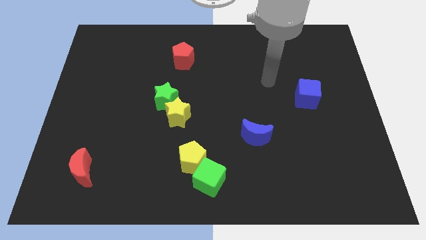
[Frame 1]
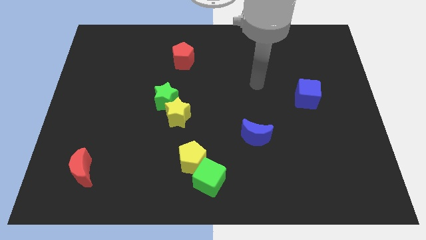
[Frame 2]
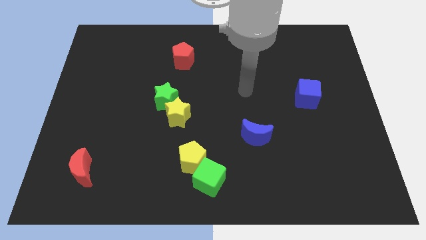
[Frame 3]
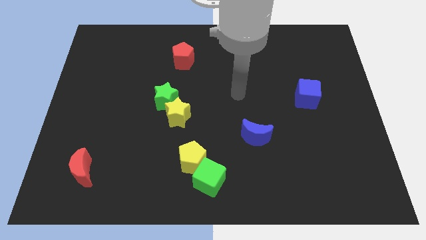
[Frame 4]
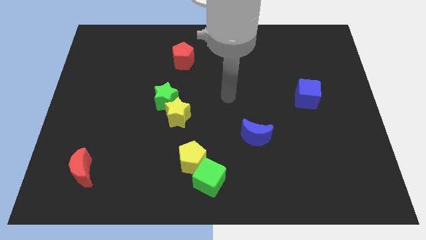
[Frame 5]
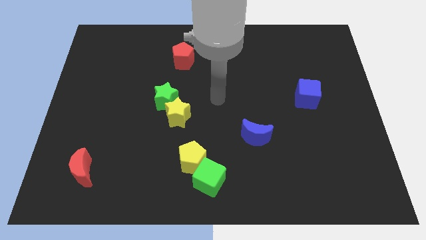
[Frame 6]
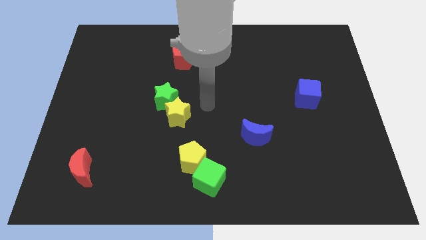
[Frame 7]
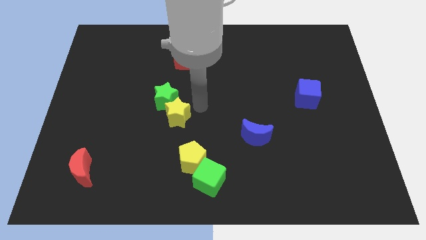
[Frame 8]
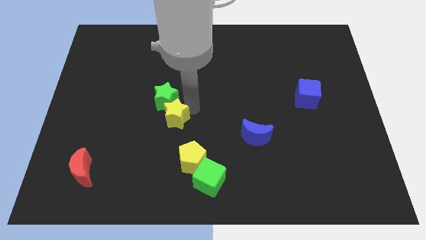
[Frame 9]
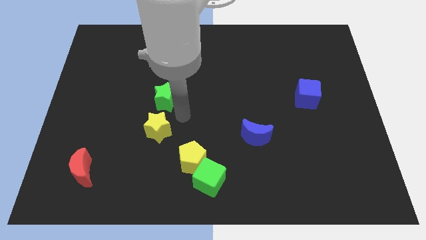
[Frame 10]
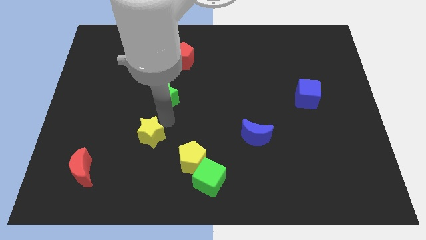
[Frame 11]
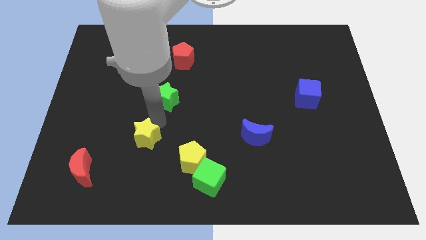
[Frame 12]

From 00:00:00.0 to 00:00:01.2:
separate the green star from the yellow star

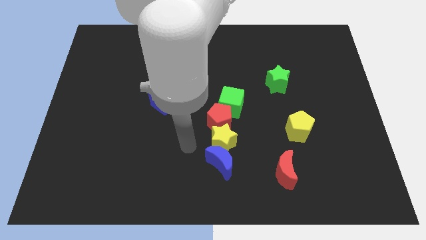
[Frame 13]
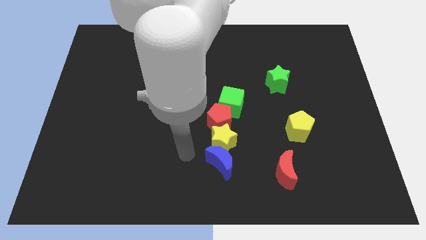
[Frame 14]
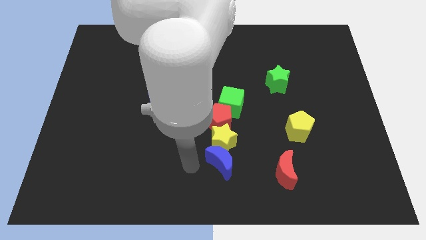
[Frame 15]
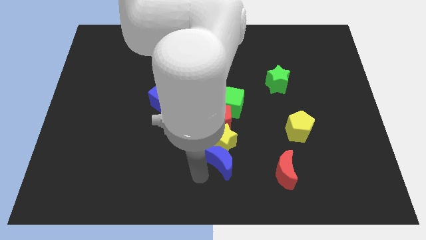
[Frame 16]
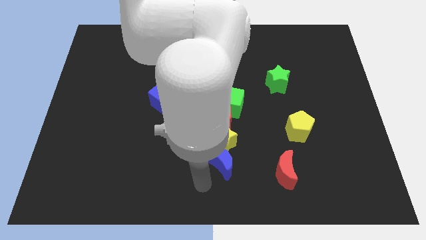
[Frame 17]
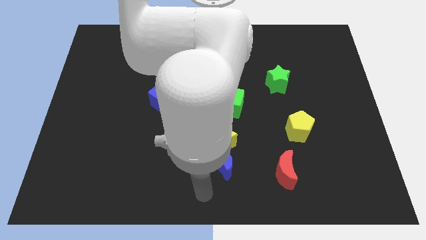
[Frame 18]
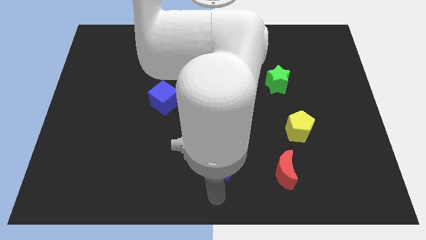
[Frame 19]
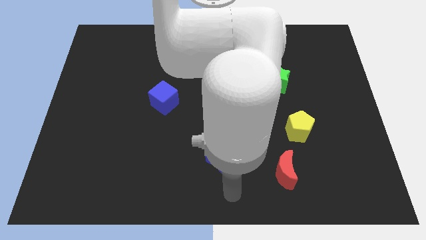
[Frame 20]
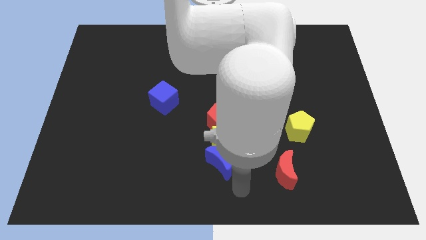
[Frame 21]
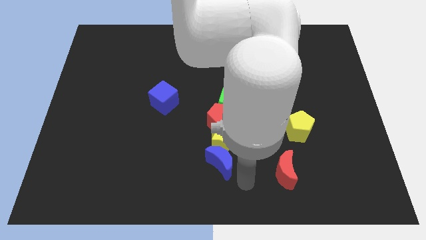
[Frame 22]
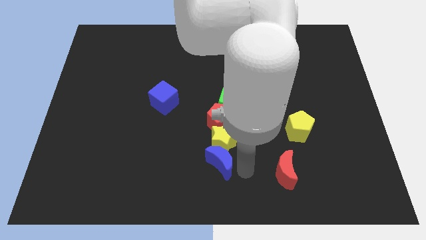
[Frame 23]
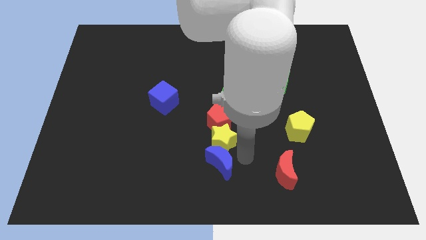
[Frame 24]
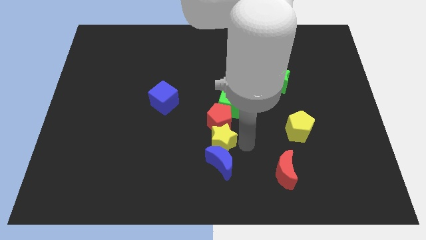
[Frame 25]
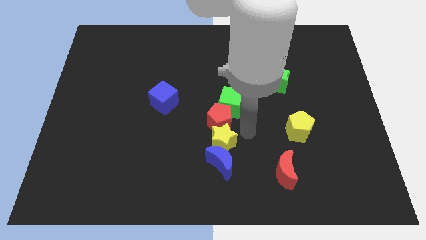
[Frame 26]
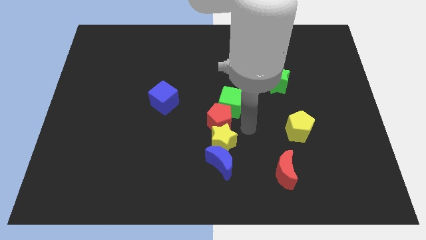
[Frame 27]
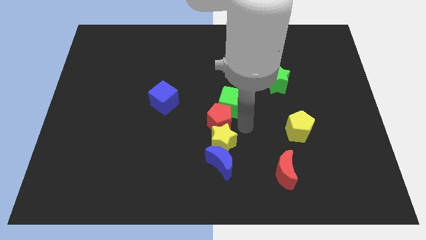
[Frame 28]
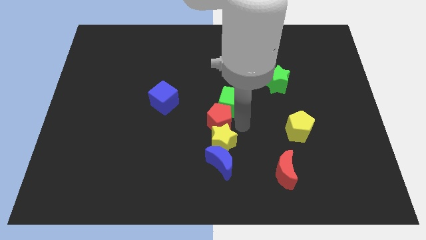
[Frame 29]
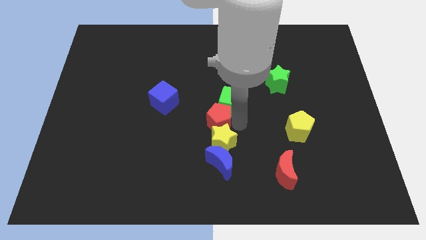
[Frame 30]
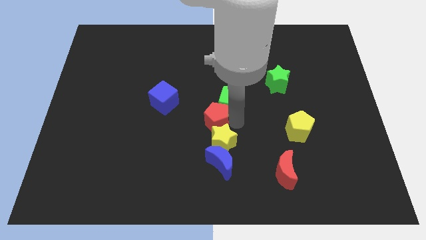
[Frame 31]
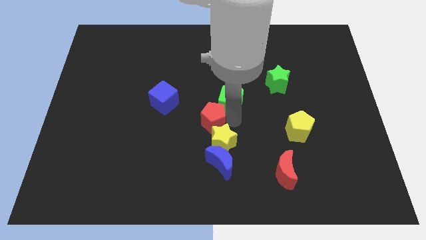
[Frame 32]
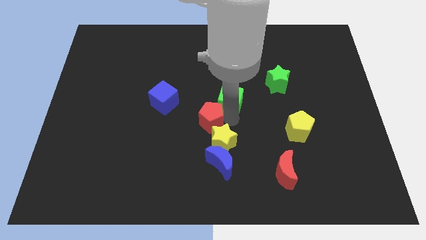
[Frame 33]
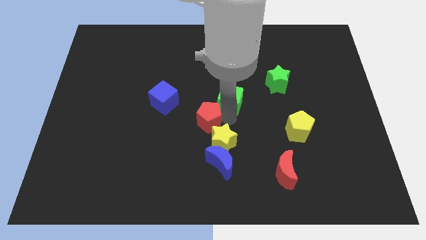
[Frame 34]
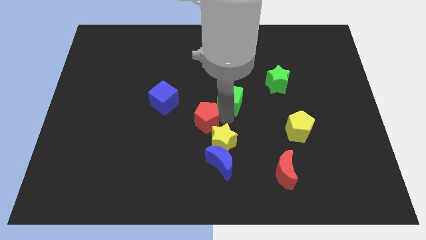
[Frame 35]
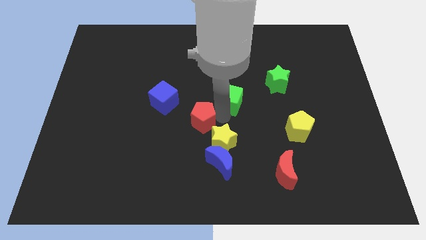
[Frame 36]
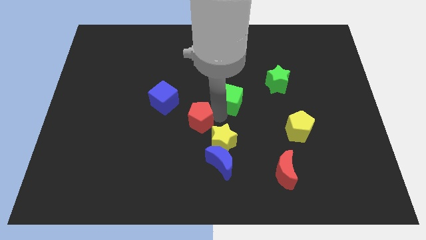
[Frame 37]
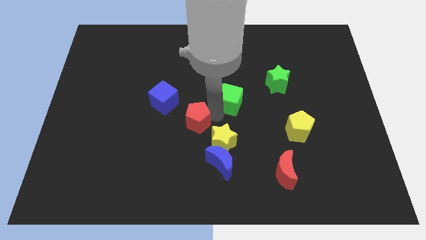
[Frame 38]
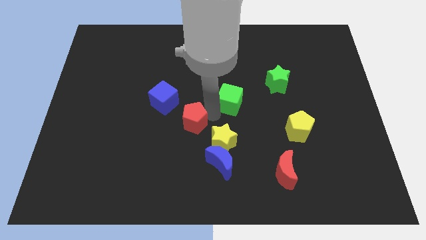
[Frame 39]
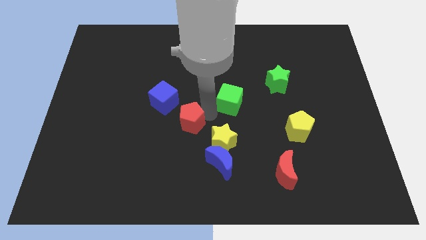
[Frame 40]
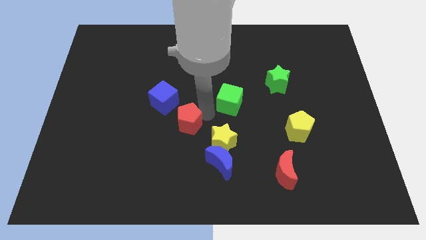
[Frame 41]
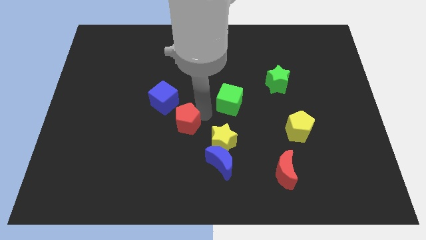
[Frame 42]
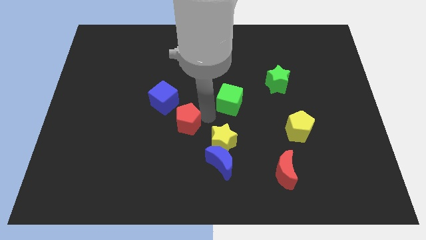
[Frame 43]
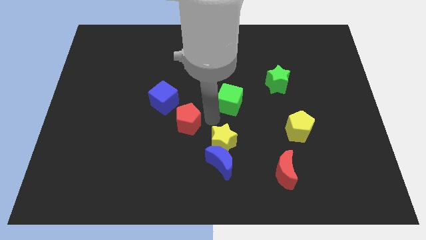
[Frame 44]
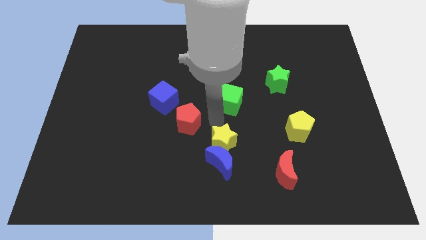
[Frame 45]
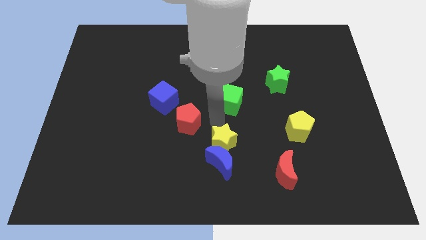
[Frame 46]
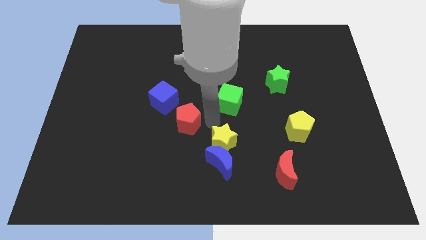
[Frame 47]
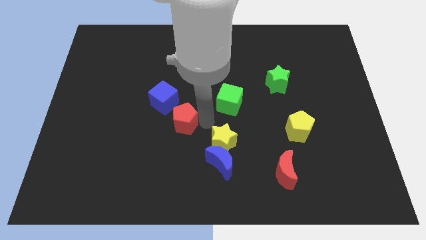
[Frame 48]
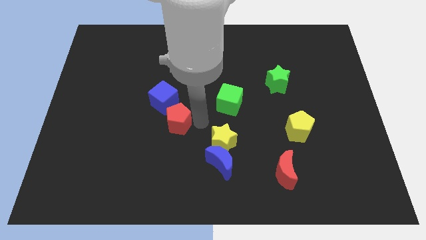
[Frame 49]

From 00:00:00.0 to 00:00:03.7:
move the red pentagon away from the yellow star and green cube

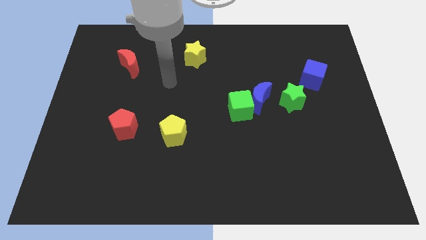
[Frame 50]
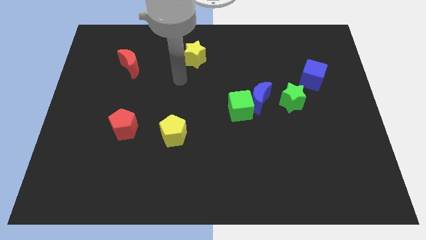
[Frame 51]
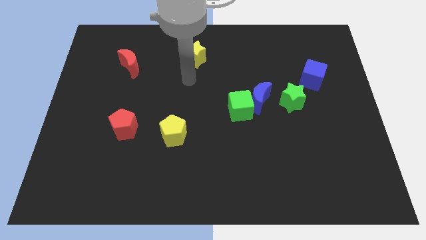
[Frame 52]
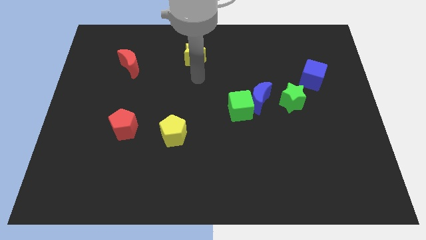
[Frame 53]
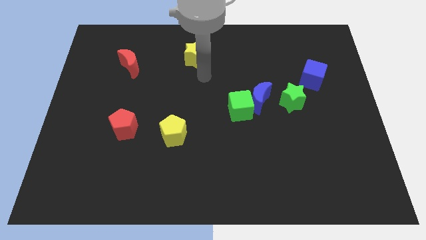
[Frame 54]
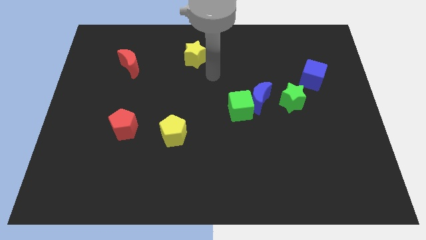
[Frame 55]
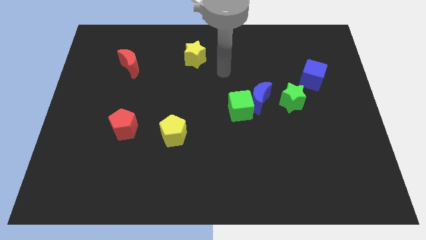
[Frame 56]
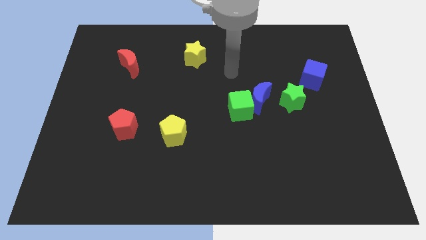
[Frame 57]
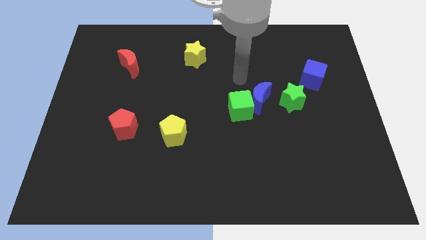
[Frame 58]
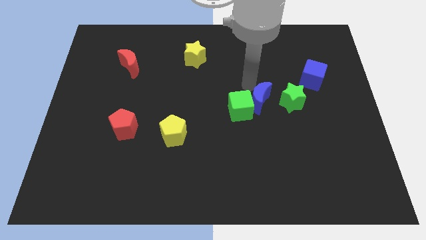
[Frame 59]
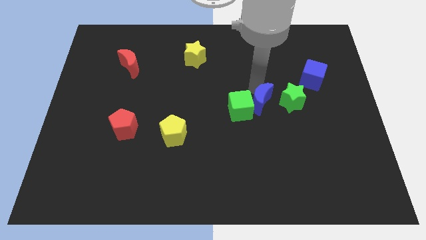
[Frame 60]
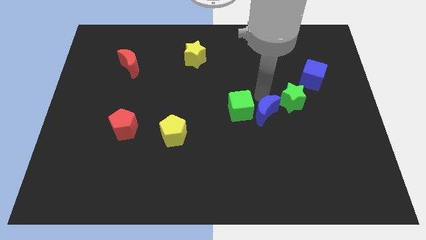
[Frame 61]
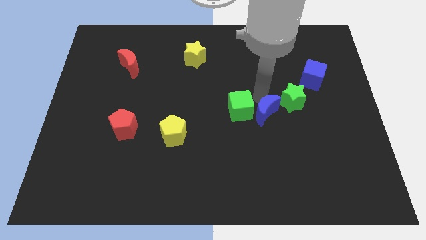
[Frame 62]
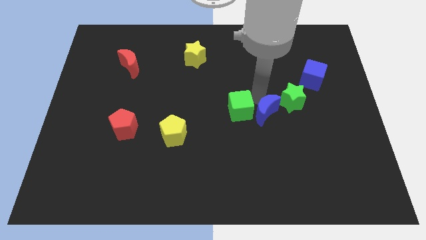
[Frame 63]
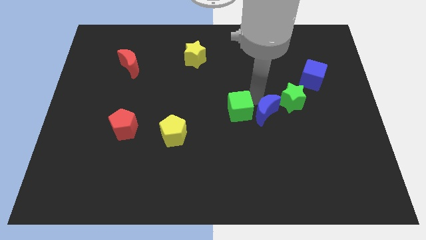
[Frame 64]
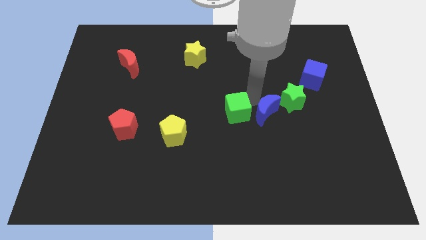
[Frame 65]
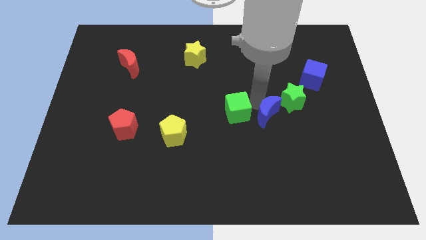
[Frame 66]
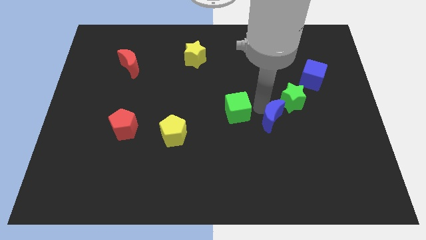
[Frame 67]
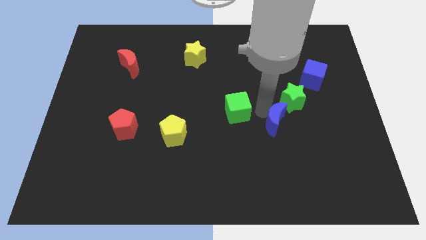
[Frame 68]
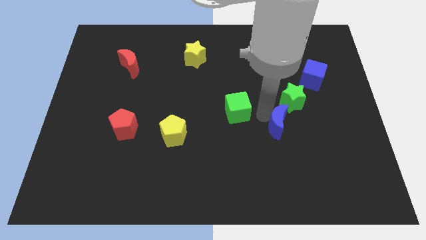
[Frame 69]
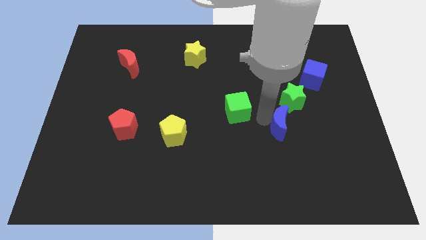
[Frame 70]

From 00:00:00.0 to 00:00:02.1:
separate the green cube from the blue moon

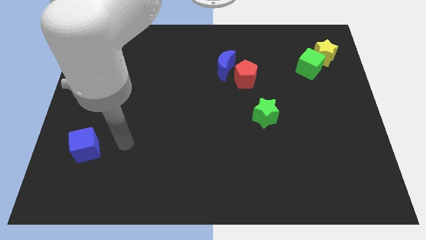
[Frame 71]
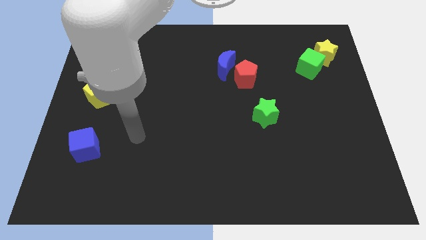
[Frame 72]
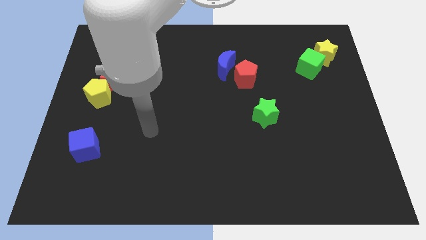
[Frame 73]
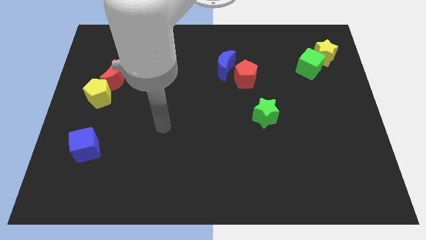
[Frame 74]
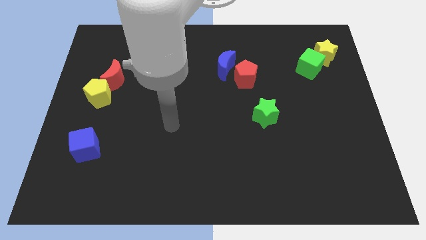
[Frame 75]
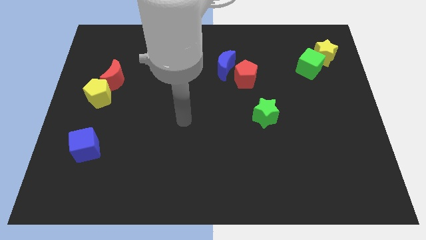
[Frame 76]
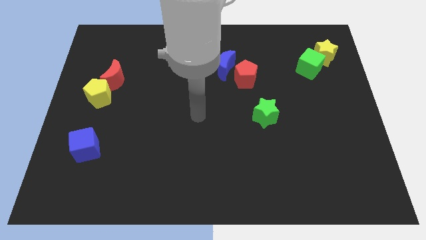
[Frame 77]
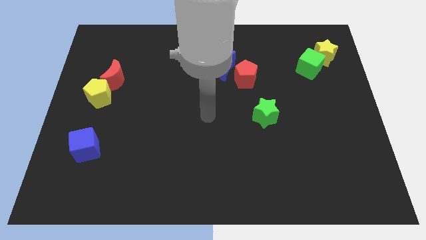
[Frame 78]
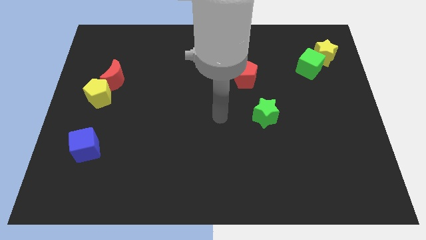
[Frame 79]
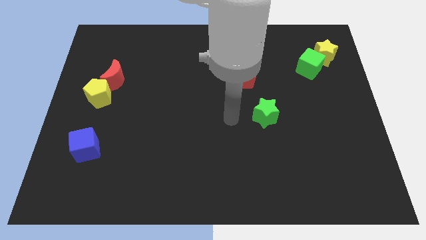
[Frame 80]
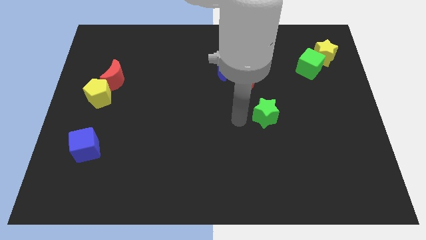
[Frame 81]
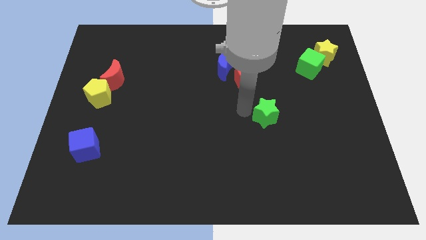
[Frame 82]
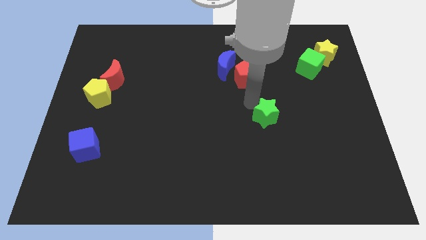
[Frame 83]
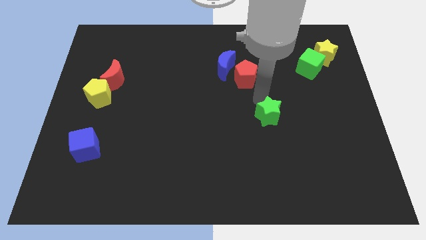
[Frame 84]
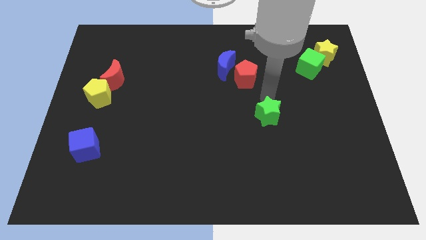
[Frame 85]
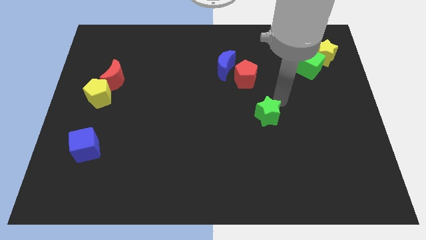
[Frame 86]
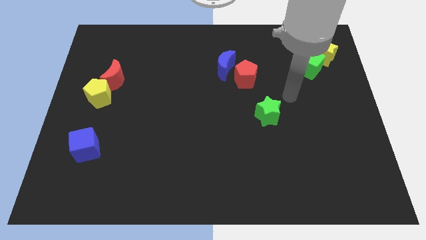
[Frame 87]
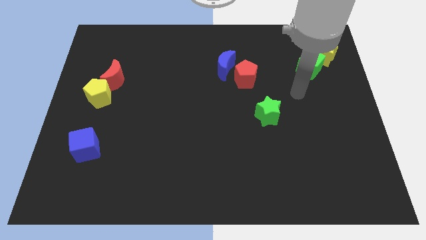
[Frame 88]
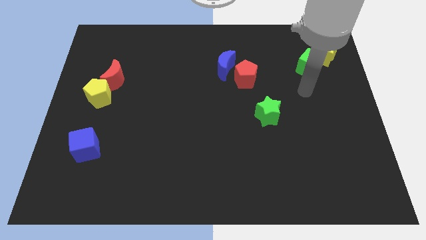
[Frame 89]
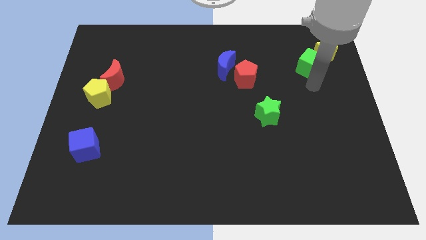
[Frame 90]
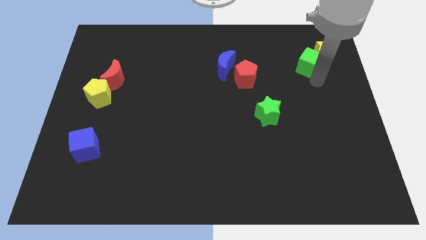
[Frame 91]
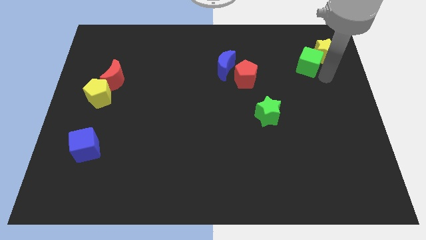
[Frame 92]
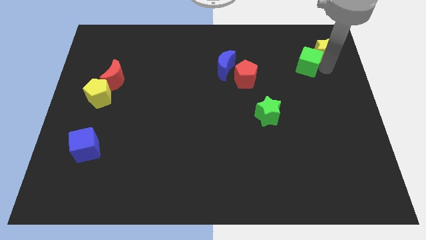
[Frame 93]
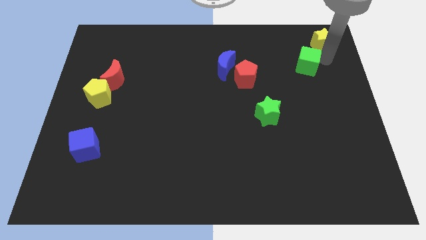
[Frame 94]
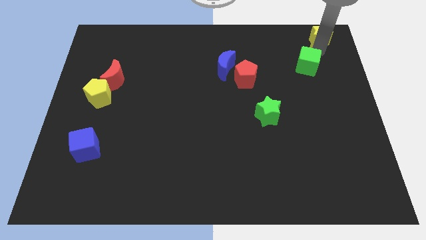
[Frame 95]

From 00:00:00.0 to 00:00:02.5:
separate the green cube from the yellow star

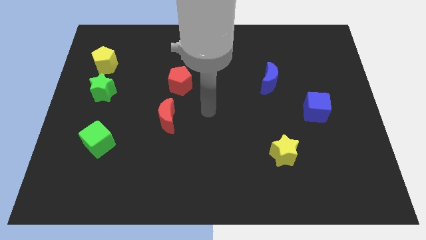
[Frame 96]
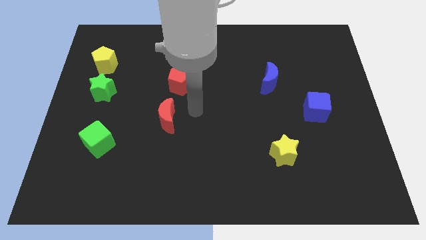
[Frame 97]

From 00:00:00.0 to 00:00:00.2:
separate the green star from the yellow pentagon
